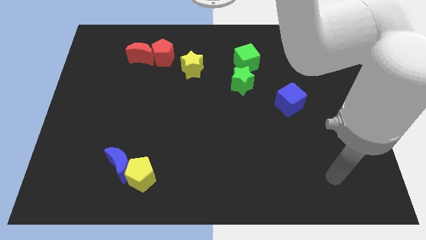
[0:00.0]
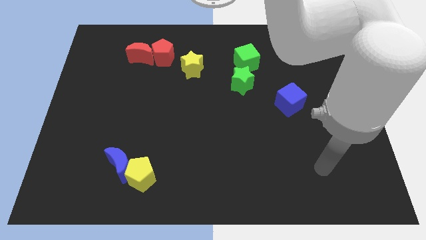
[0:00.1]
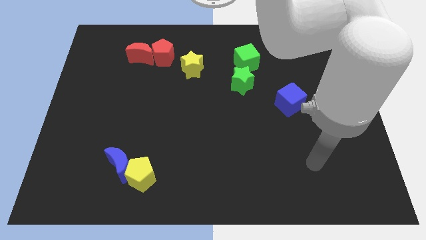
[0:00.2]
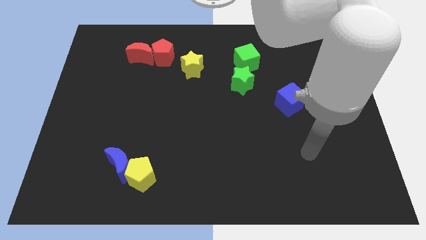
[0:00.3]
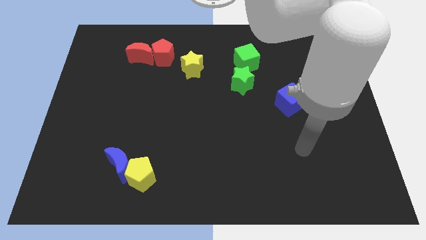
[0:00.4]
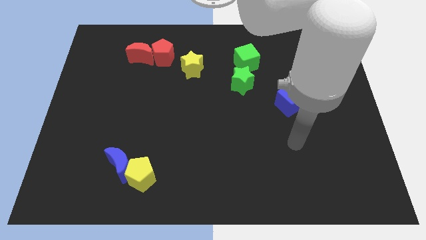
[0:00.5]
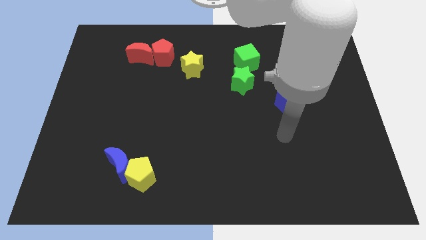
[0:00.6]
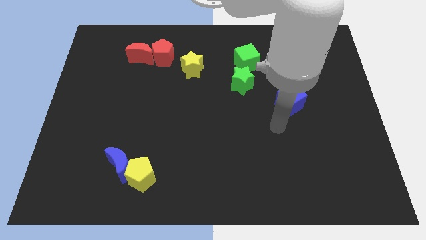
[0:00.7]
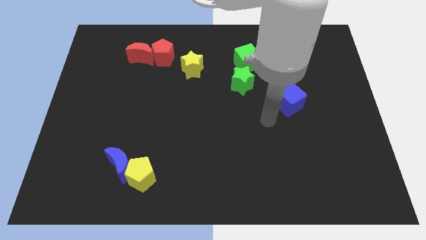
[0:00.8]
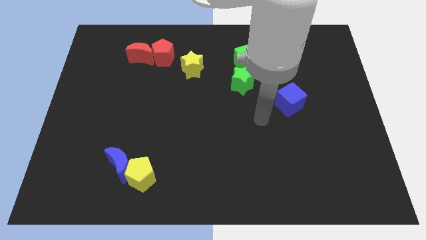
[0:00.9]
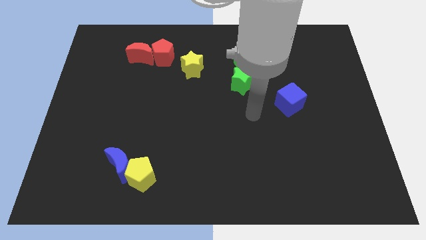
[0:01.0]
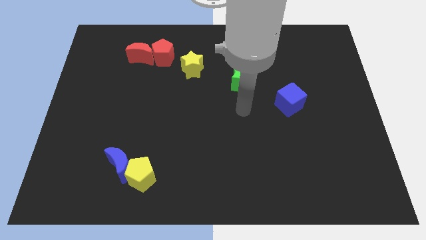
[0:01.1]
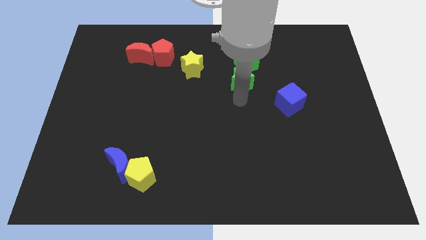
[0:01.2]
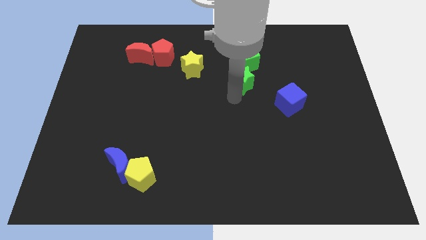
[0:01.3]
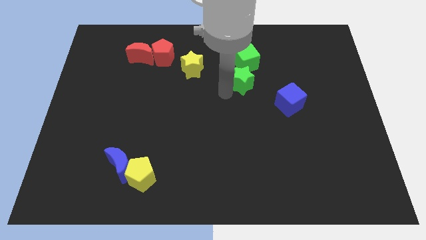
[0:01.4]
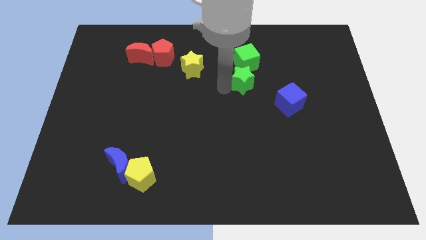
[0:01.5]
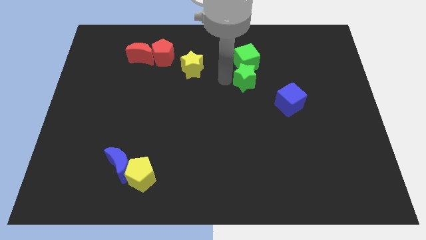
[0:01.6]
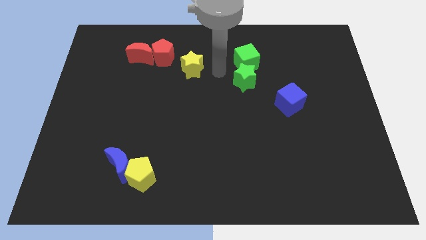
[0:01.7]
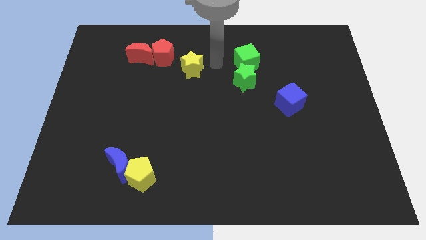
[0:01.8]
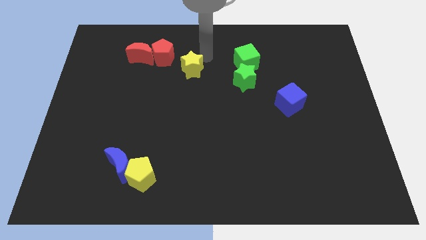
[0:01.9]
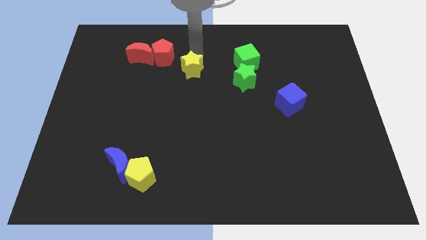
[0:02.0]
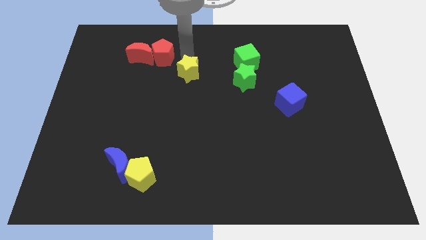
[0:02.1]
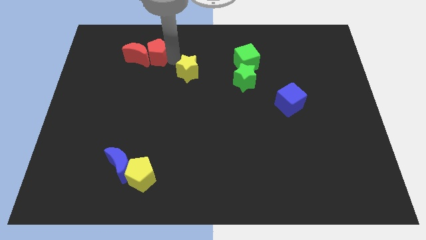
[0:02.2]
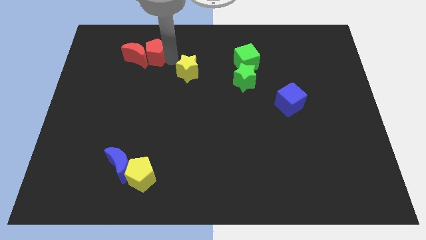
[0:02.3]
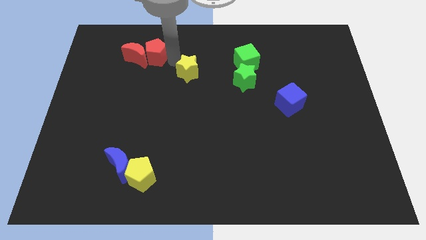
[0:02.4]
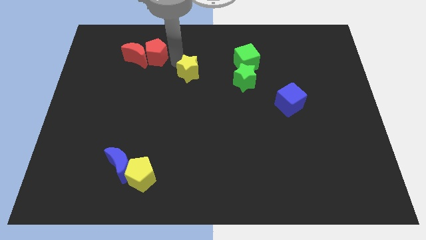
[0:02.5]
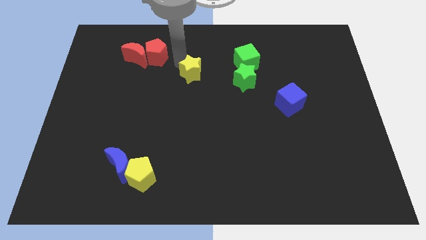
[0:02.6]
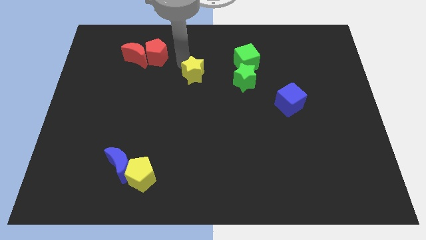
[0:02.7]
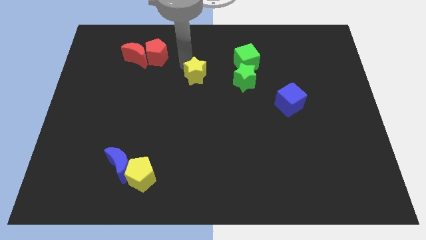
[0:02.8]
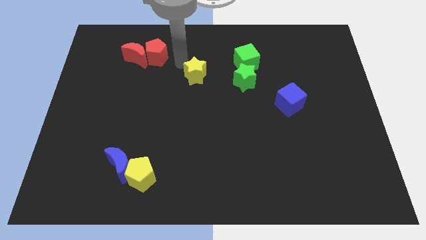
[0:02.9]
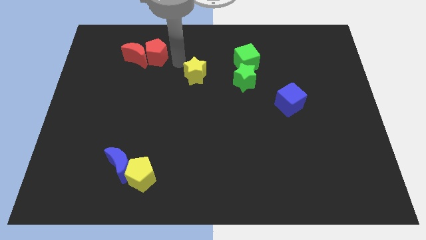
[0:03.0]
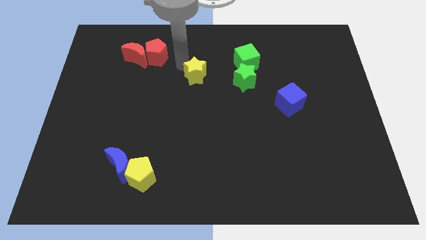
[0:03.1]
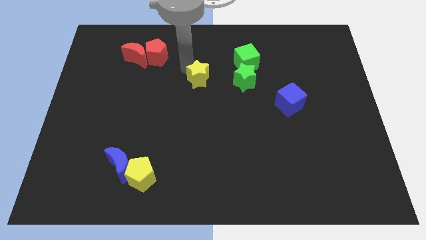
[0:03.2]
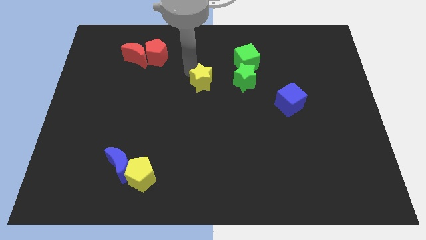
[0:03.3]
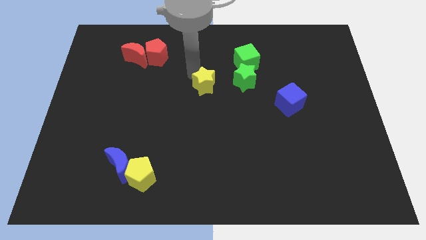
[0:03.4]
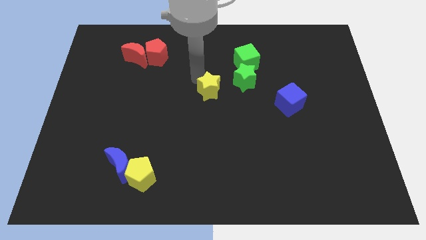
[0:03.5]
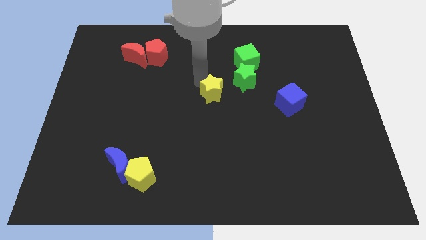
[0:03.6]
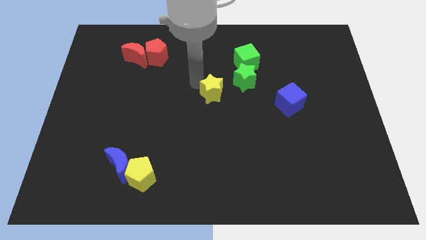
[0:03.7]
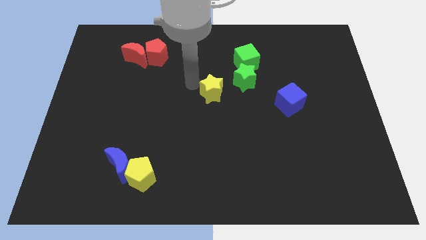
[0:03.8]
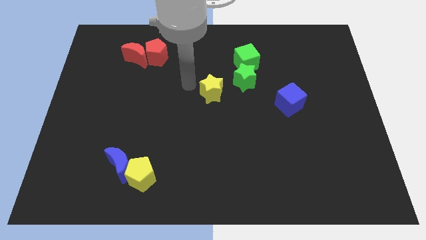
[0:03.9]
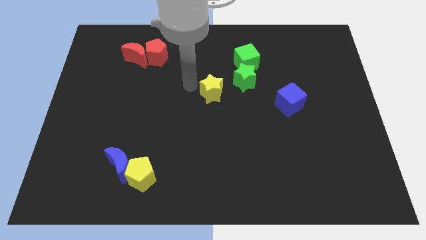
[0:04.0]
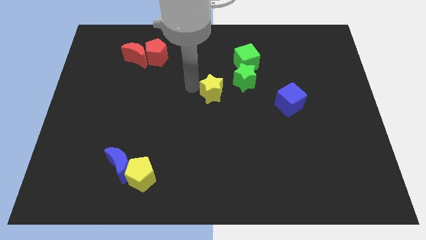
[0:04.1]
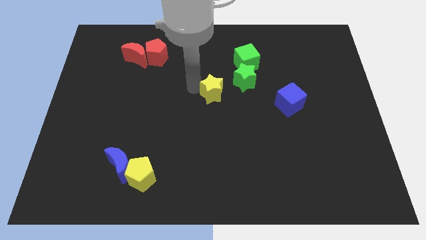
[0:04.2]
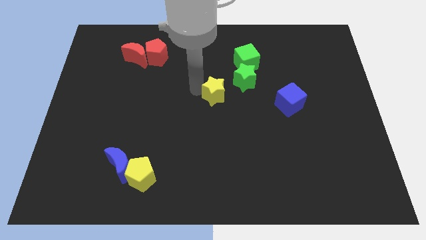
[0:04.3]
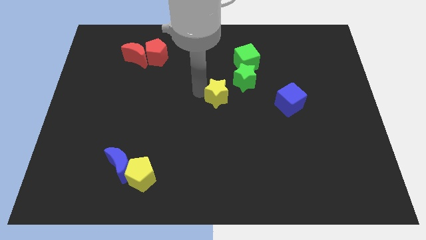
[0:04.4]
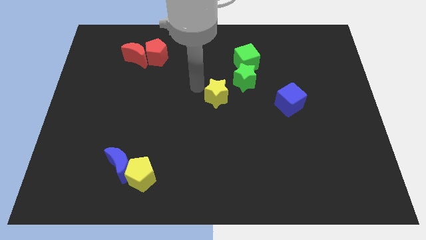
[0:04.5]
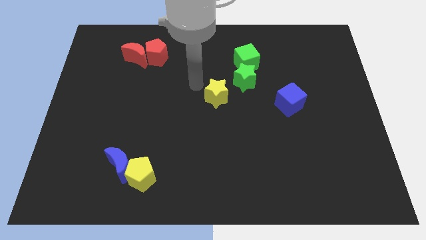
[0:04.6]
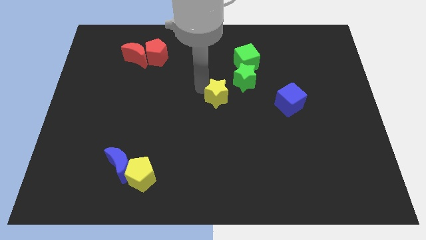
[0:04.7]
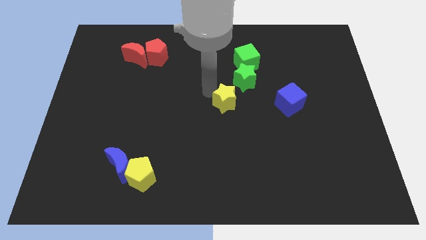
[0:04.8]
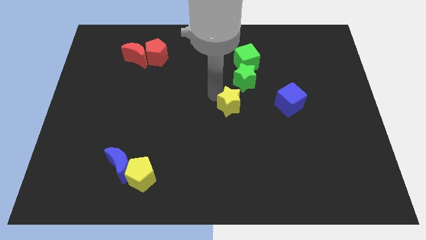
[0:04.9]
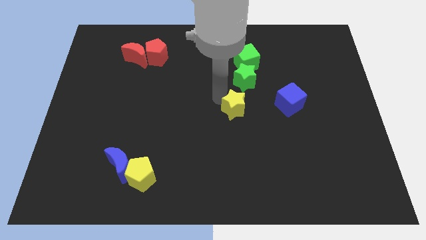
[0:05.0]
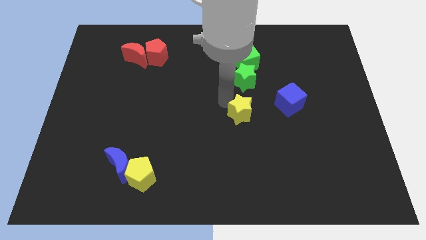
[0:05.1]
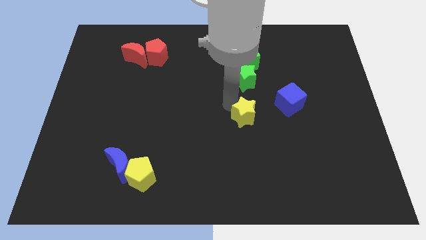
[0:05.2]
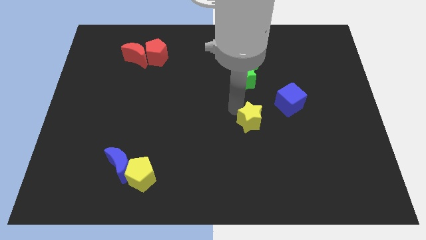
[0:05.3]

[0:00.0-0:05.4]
slide the yellow star down and right diagonally

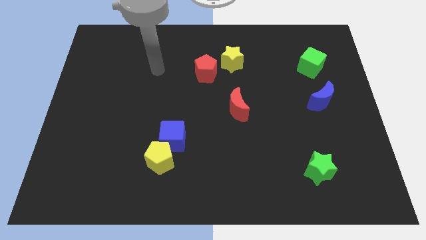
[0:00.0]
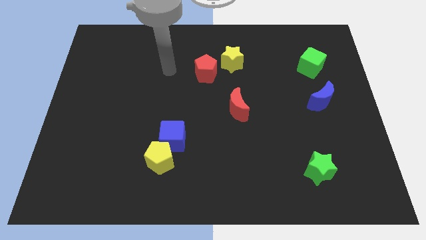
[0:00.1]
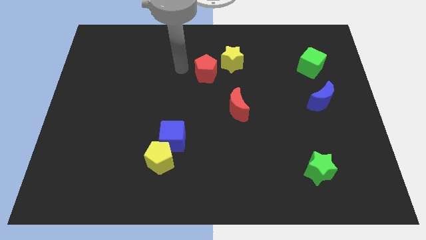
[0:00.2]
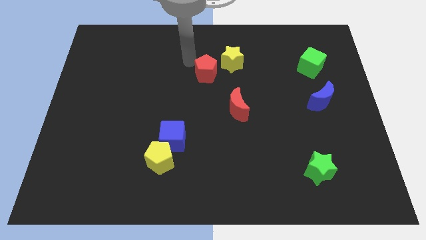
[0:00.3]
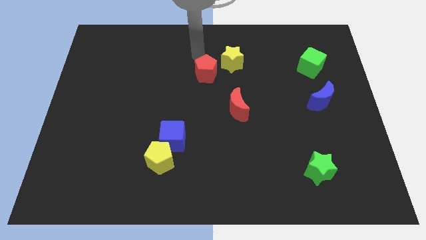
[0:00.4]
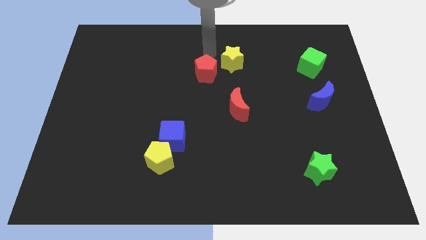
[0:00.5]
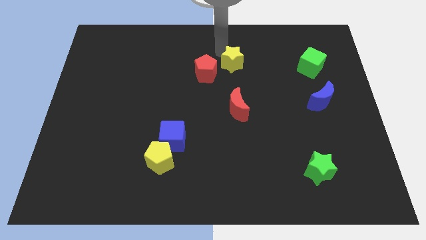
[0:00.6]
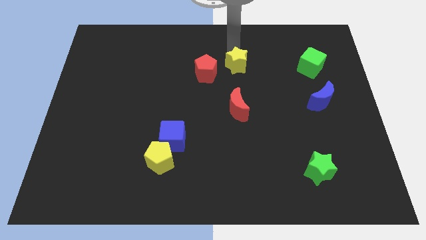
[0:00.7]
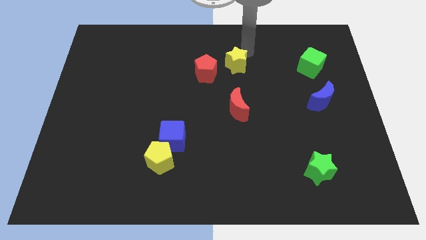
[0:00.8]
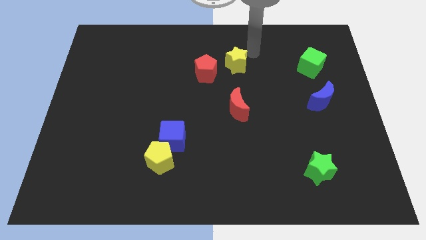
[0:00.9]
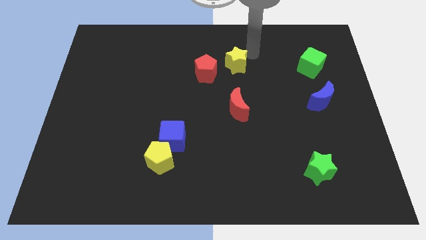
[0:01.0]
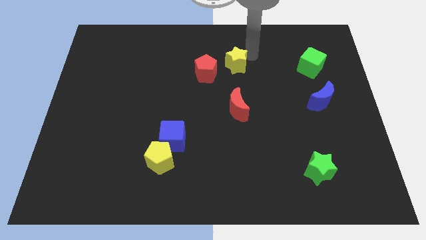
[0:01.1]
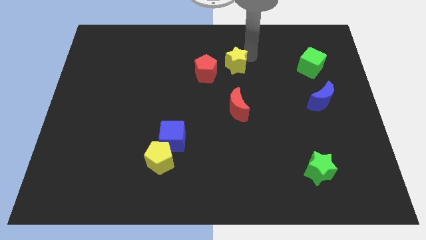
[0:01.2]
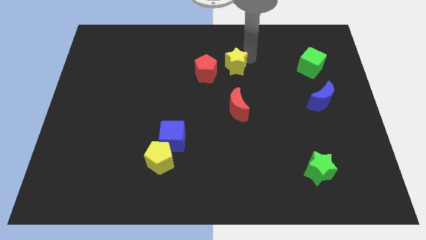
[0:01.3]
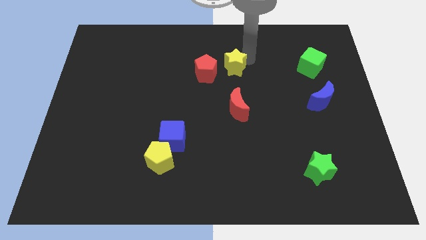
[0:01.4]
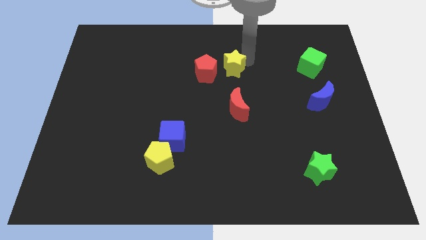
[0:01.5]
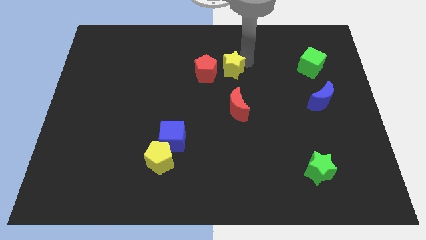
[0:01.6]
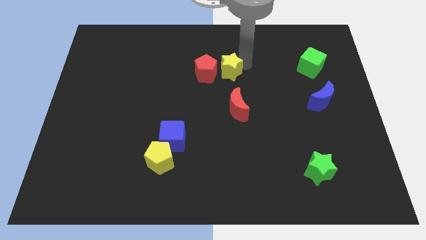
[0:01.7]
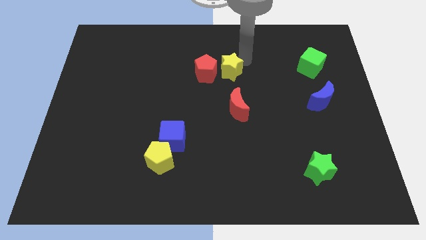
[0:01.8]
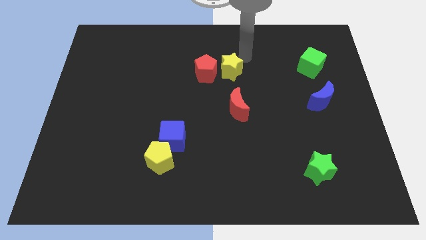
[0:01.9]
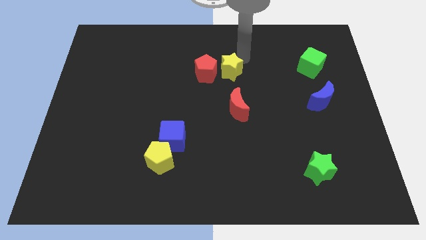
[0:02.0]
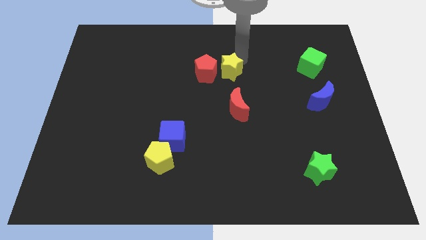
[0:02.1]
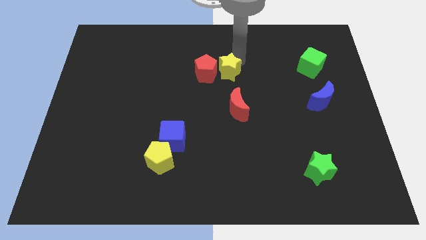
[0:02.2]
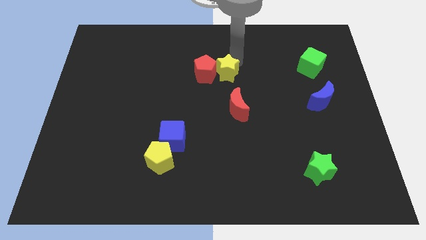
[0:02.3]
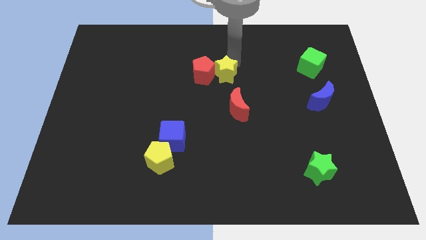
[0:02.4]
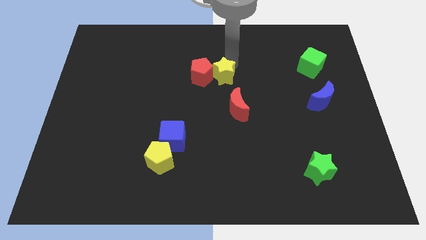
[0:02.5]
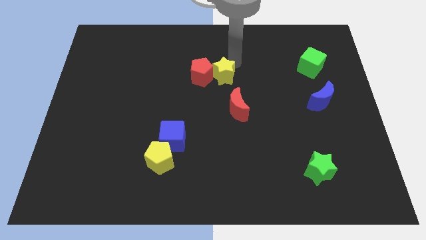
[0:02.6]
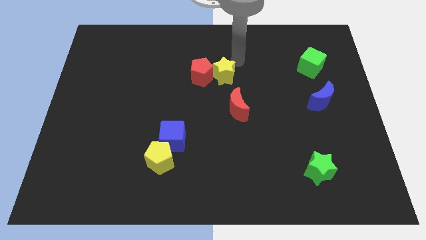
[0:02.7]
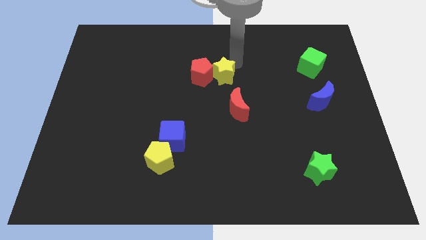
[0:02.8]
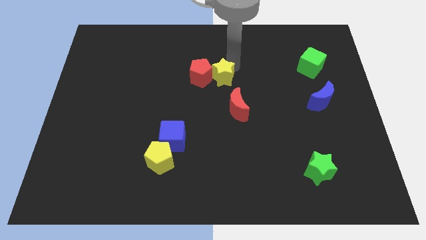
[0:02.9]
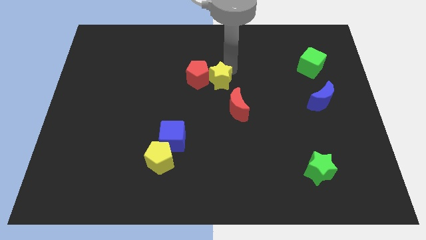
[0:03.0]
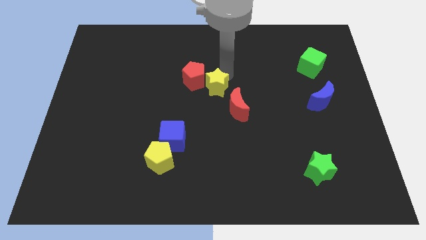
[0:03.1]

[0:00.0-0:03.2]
slide the yellow star down and left a little
